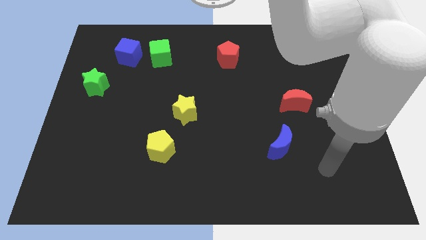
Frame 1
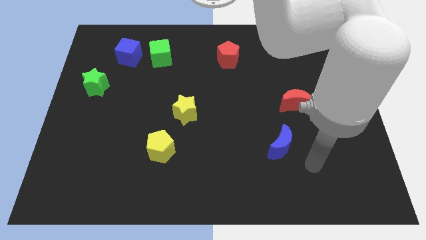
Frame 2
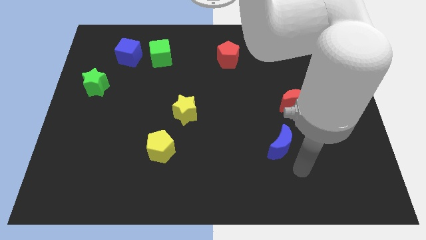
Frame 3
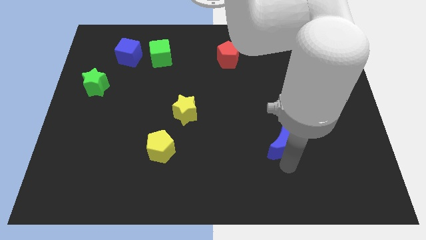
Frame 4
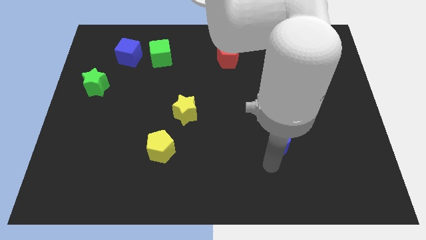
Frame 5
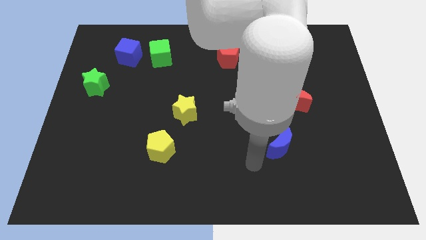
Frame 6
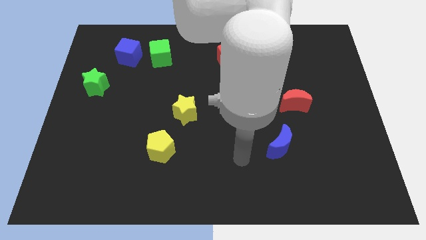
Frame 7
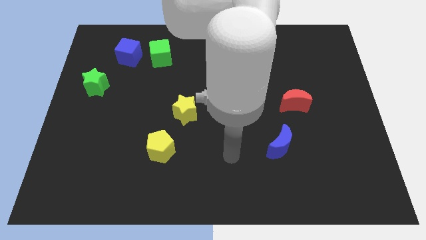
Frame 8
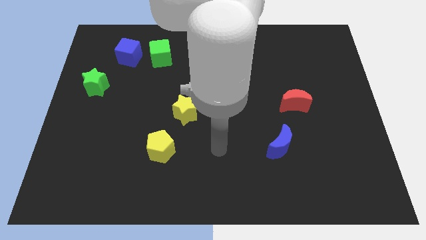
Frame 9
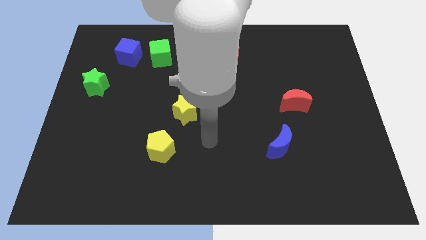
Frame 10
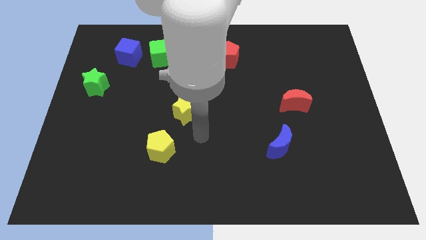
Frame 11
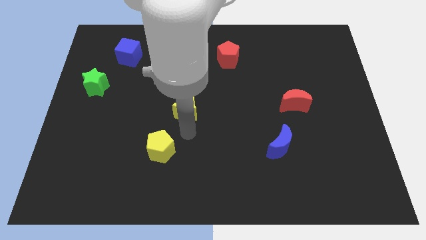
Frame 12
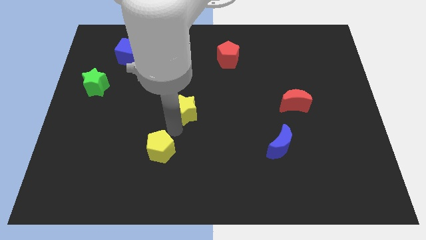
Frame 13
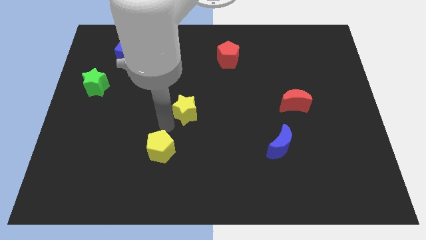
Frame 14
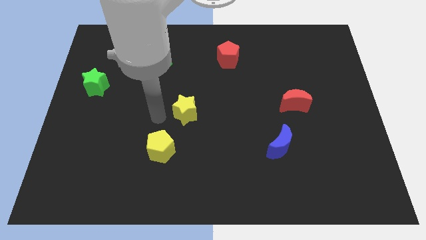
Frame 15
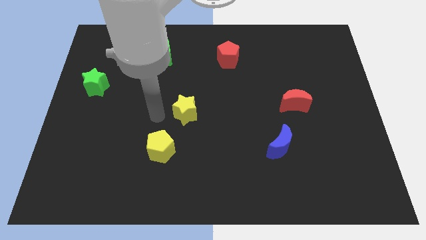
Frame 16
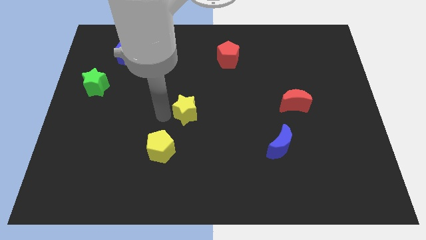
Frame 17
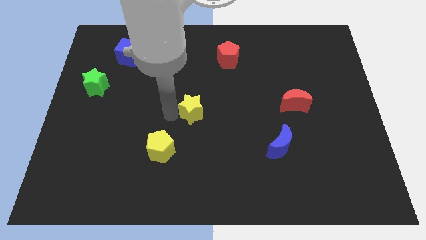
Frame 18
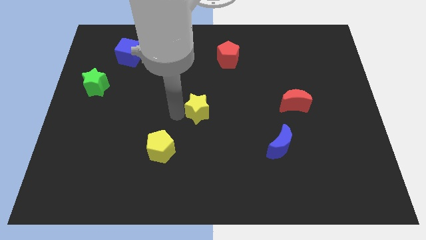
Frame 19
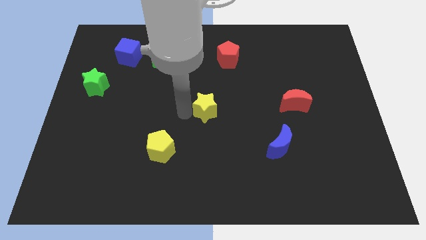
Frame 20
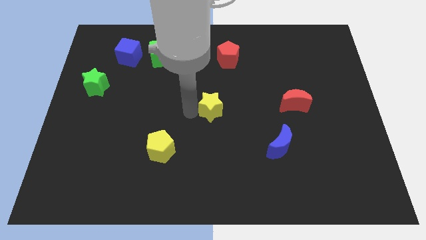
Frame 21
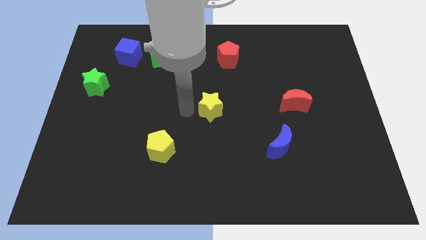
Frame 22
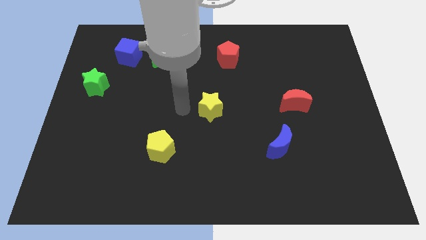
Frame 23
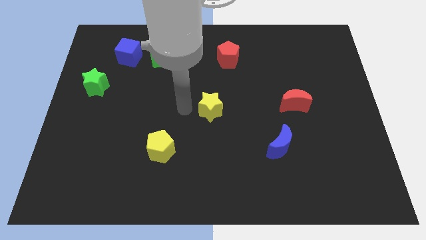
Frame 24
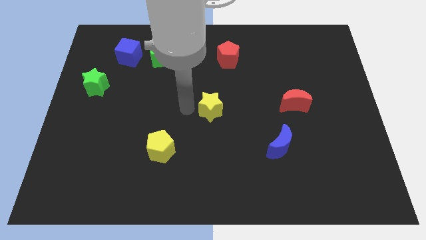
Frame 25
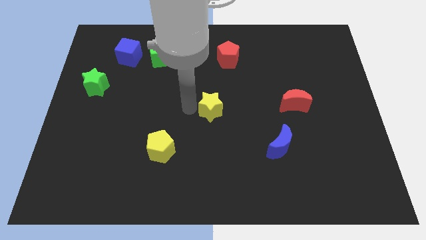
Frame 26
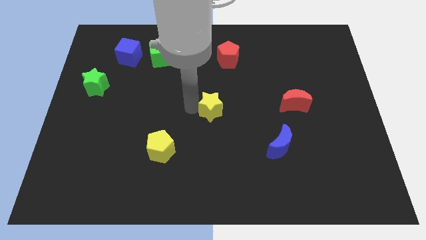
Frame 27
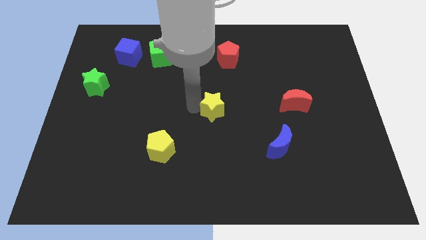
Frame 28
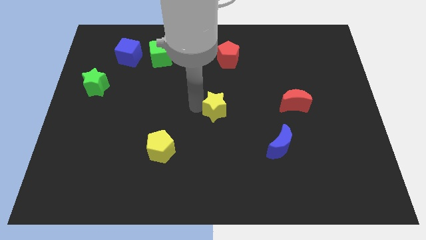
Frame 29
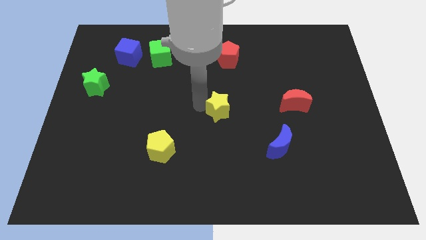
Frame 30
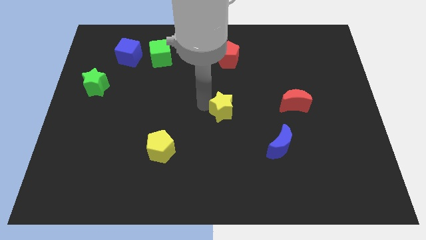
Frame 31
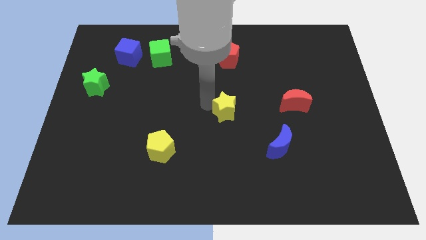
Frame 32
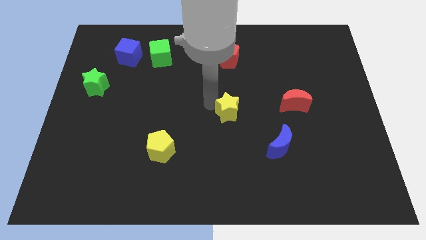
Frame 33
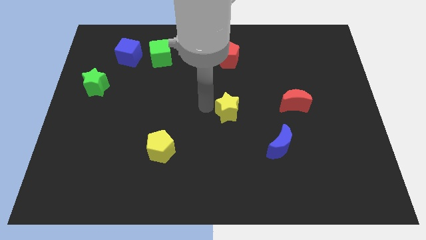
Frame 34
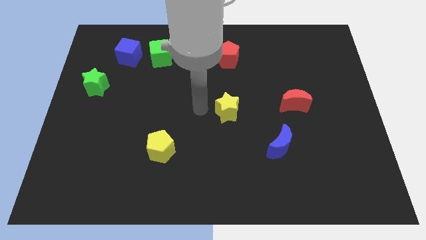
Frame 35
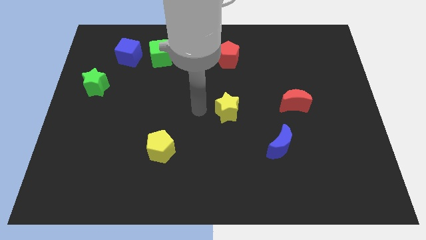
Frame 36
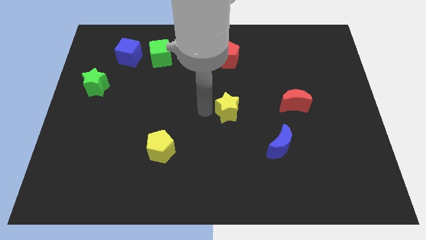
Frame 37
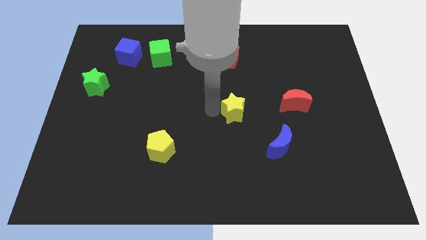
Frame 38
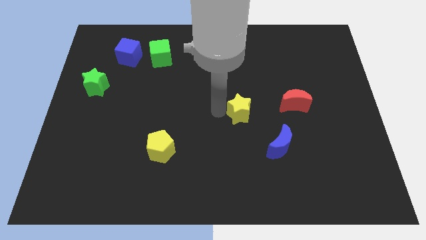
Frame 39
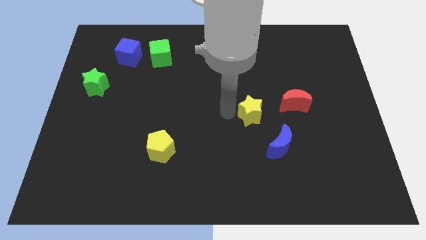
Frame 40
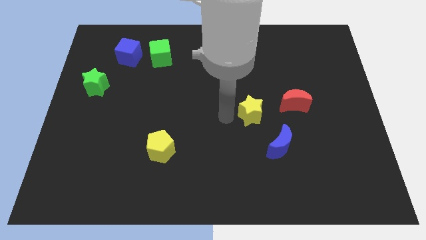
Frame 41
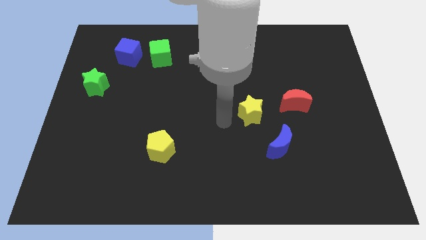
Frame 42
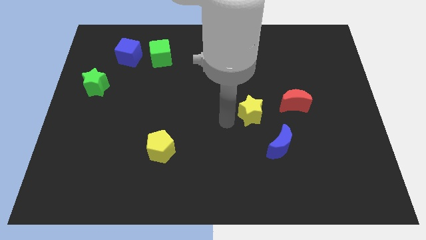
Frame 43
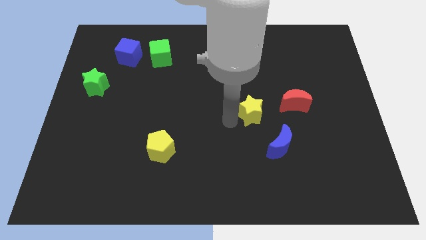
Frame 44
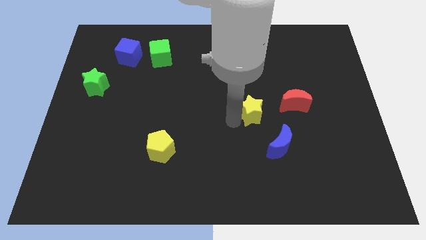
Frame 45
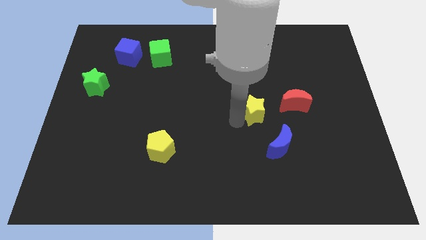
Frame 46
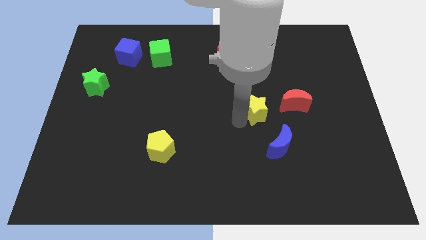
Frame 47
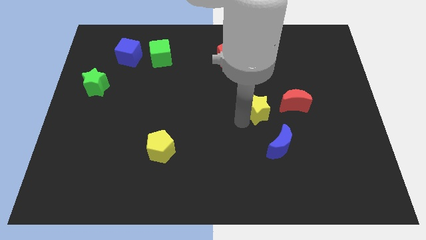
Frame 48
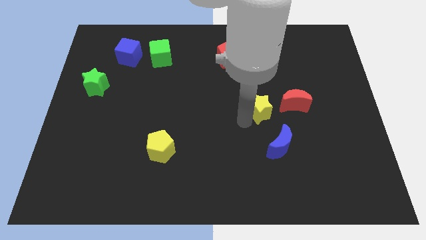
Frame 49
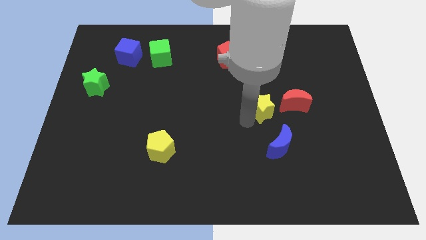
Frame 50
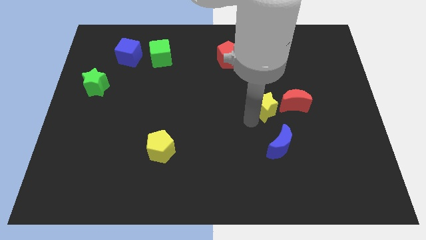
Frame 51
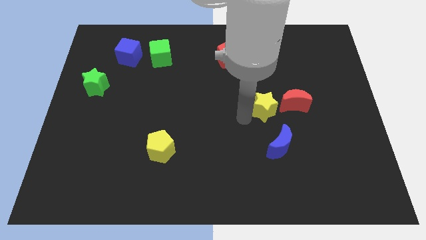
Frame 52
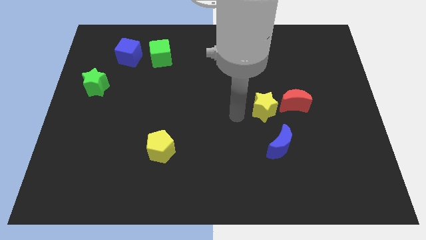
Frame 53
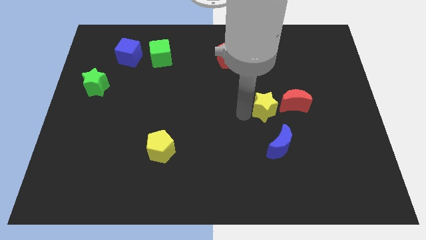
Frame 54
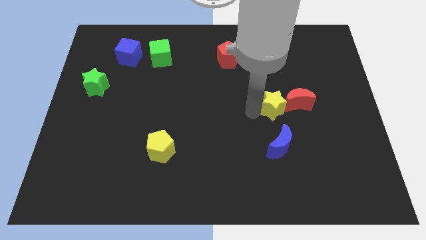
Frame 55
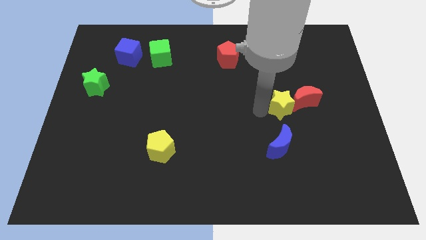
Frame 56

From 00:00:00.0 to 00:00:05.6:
push the yellow star to the red moon

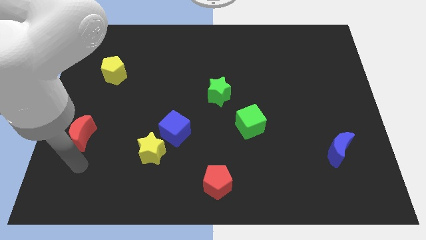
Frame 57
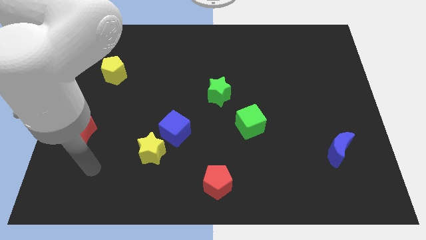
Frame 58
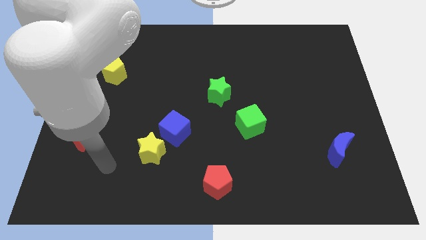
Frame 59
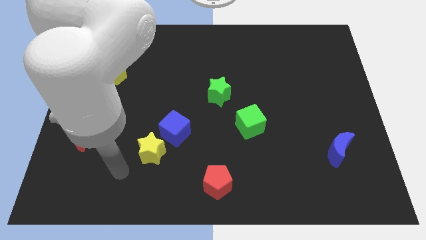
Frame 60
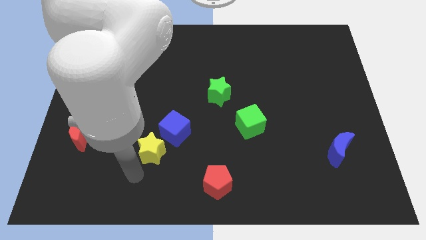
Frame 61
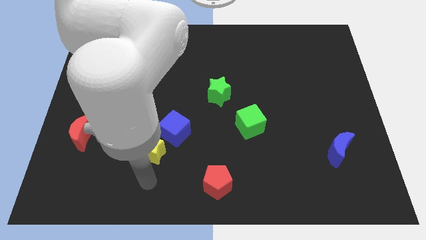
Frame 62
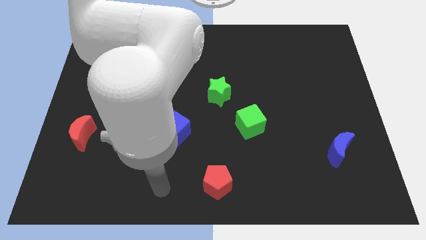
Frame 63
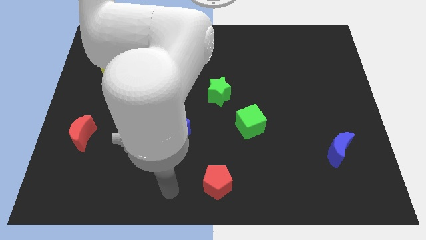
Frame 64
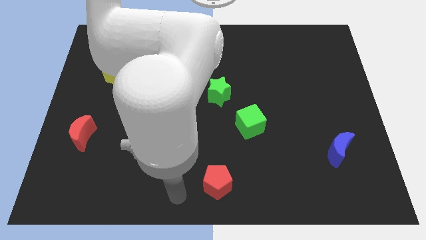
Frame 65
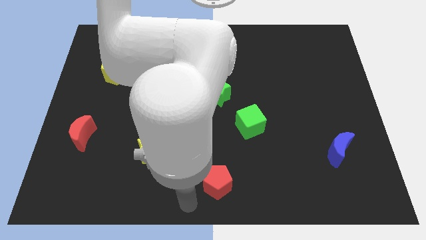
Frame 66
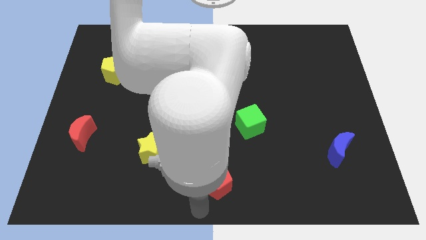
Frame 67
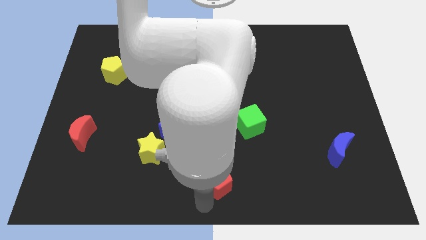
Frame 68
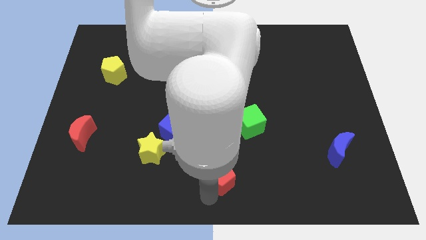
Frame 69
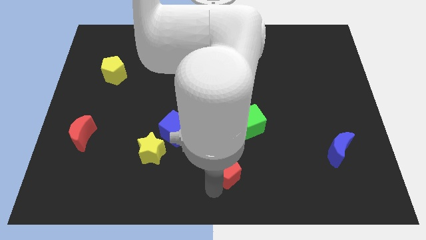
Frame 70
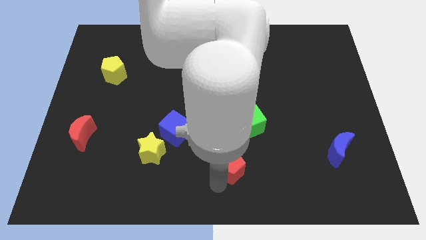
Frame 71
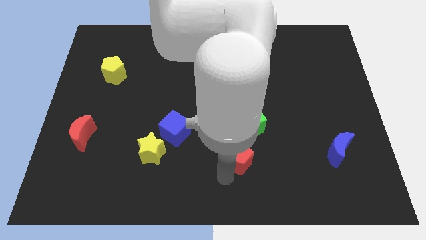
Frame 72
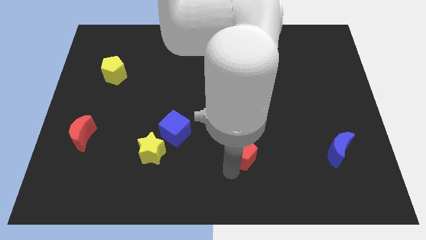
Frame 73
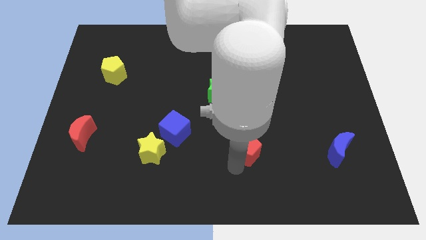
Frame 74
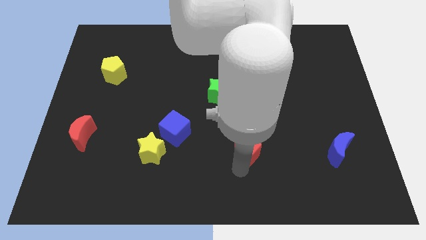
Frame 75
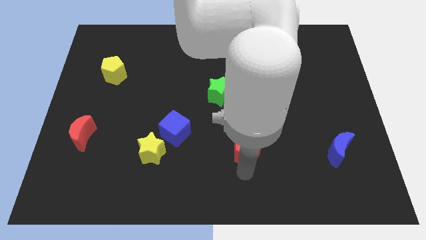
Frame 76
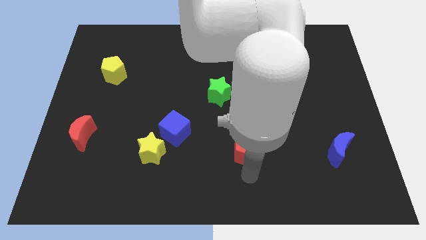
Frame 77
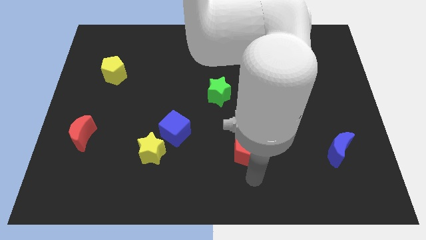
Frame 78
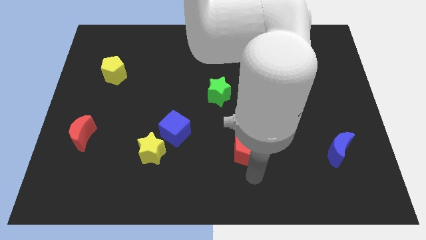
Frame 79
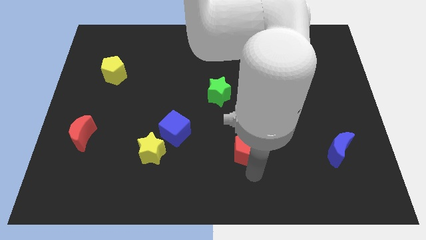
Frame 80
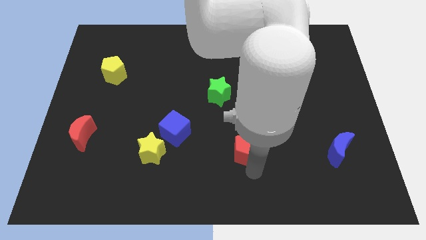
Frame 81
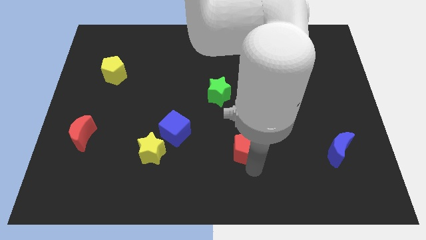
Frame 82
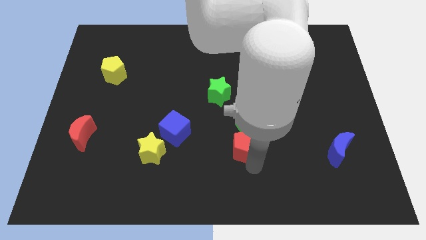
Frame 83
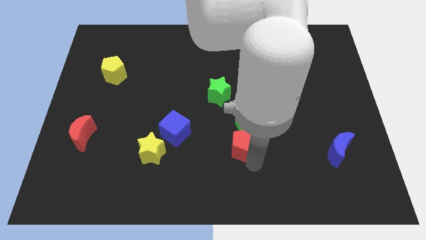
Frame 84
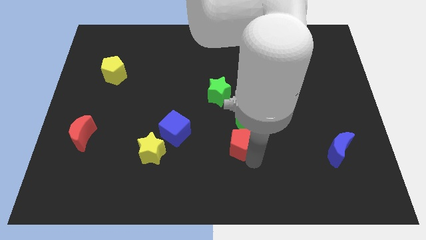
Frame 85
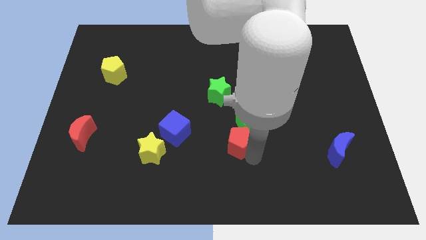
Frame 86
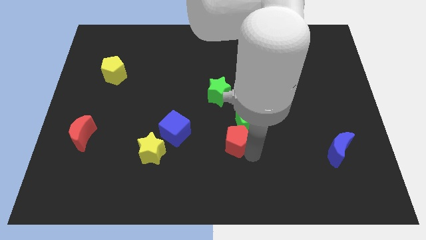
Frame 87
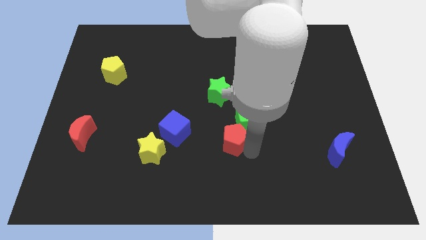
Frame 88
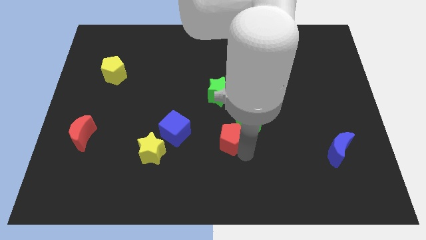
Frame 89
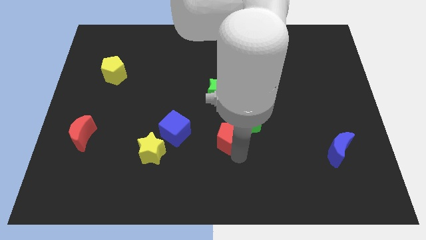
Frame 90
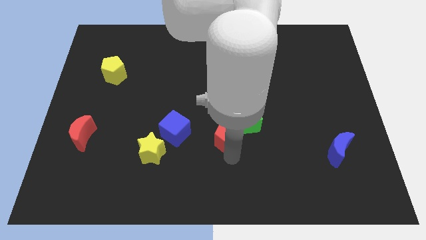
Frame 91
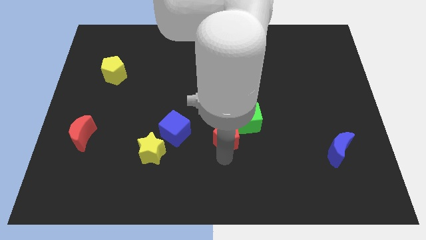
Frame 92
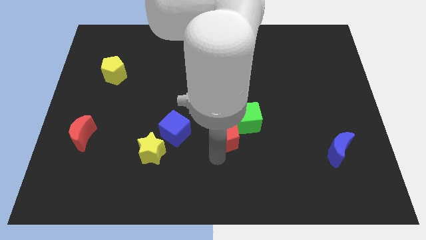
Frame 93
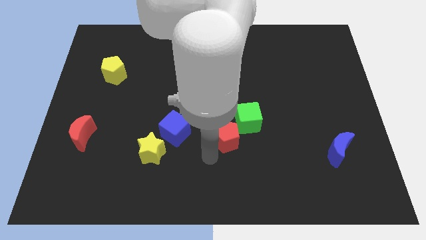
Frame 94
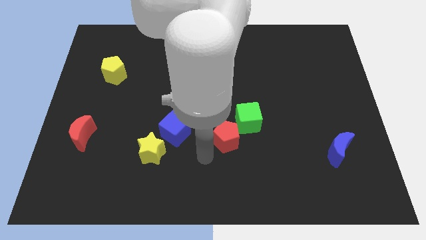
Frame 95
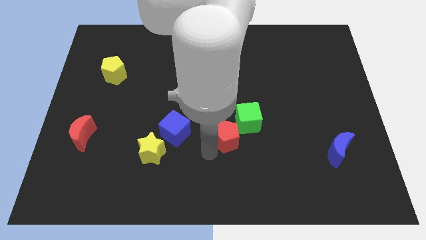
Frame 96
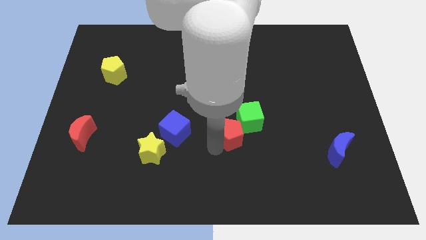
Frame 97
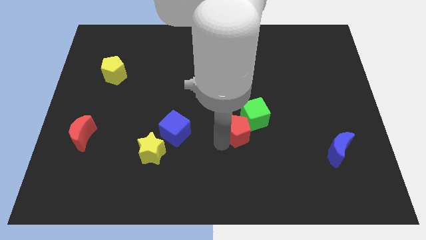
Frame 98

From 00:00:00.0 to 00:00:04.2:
push the red pentagon towards the green cube
